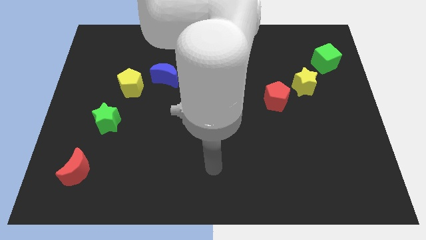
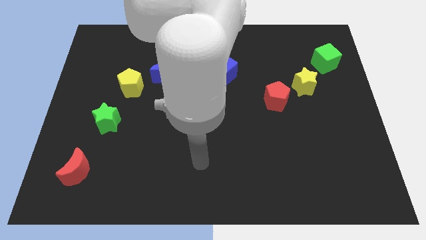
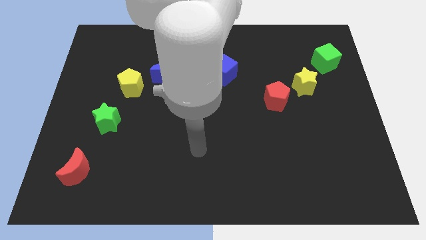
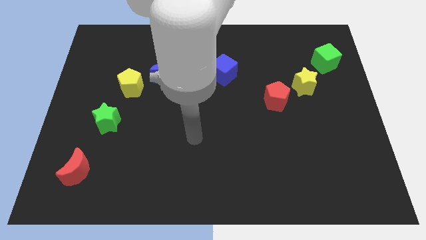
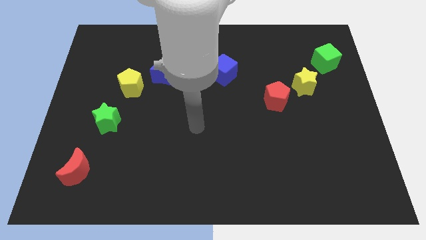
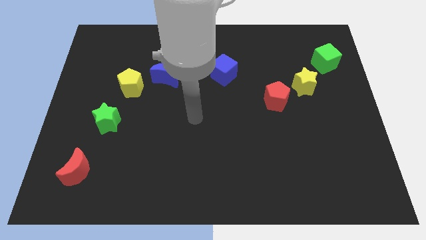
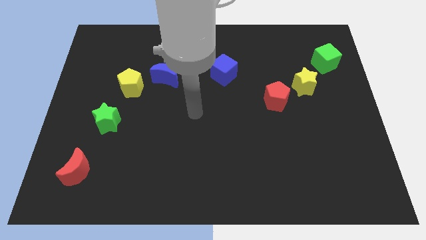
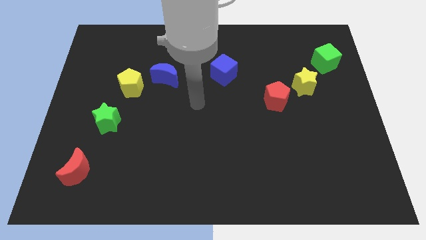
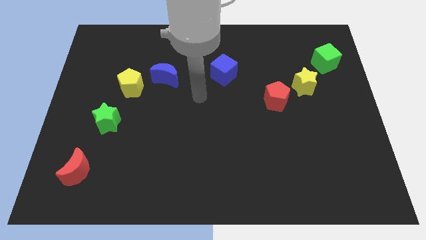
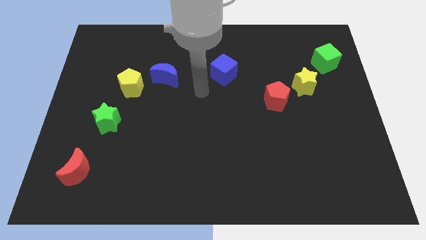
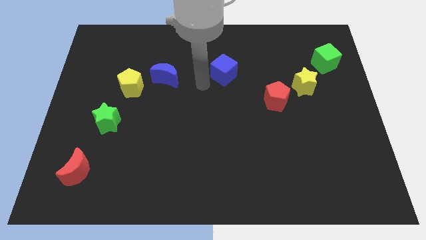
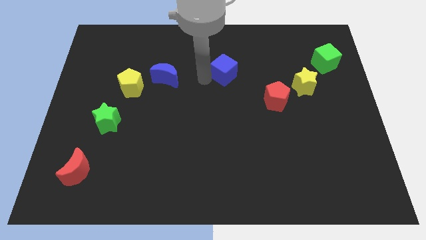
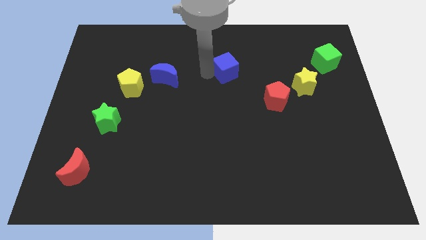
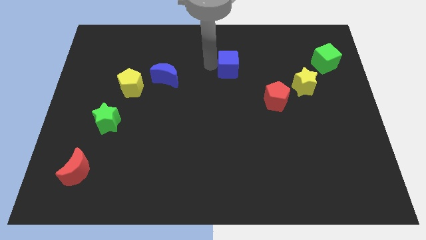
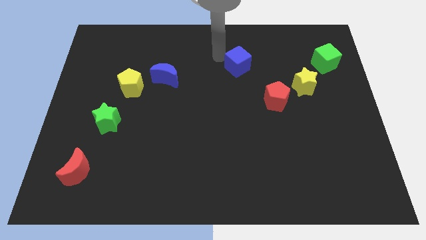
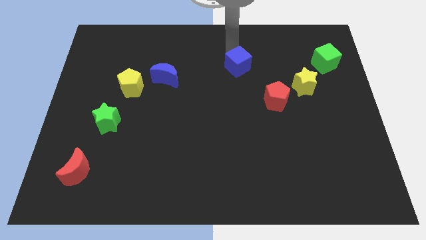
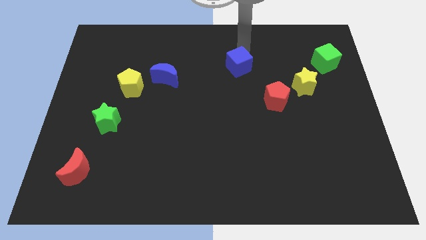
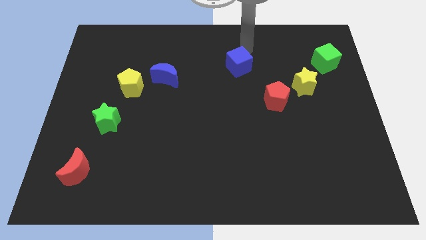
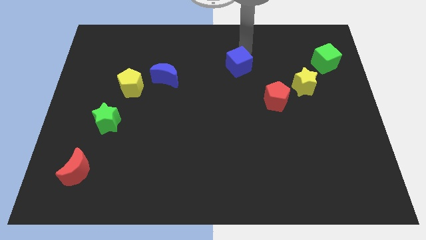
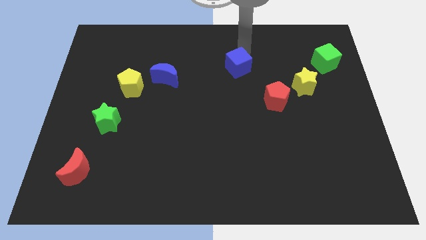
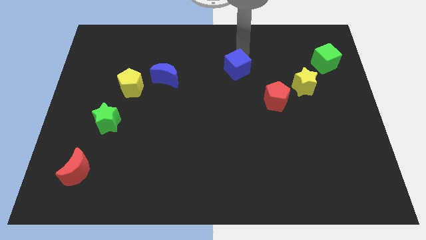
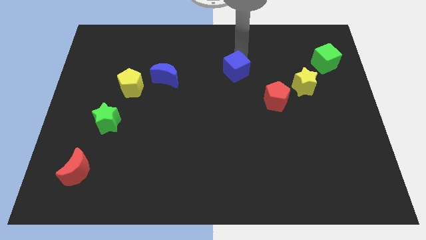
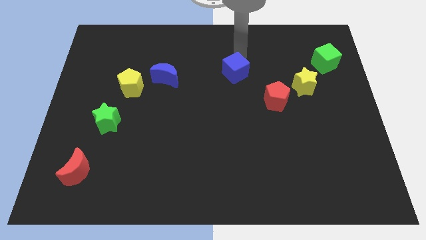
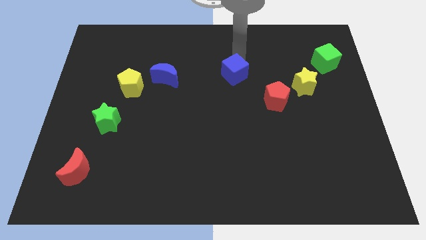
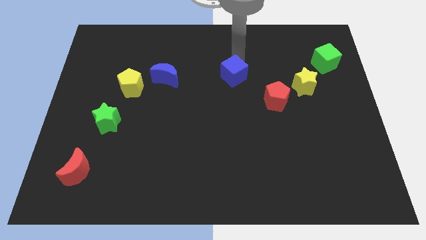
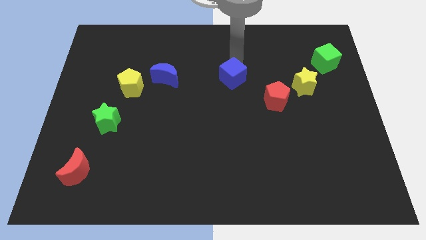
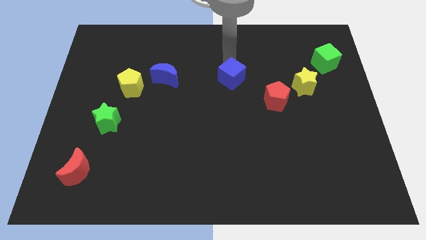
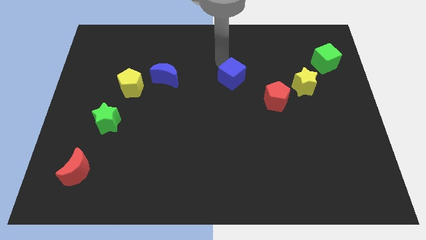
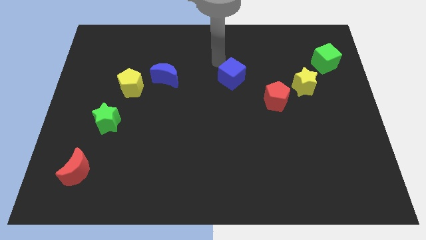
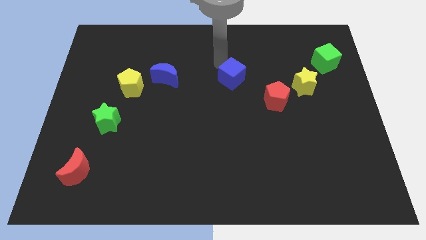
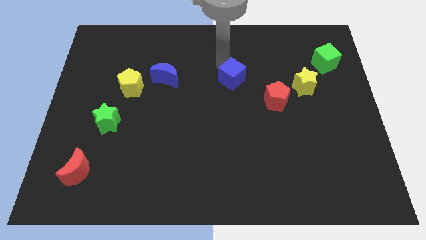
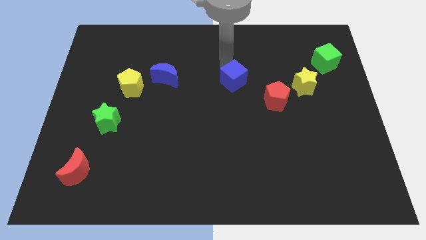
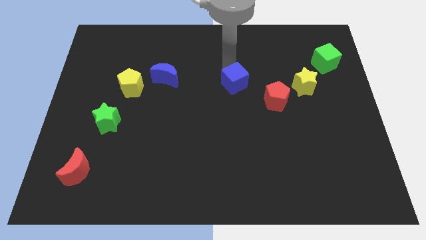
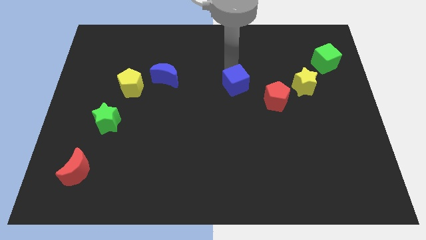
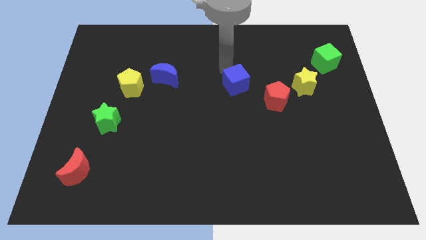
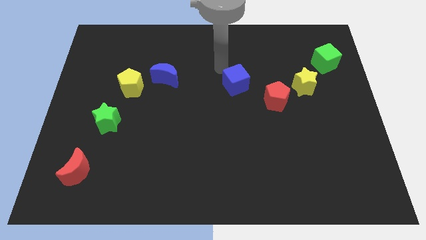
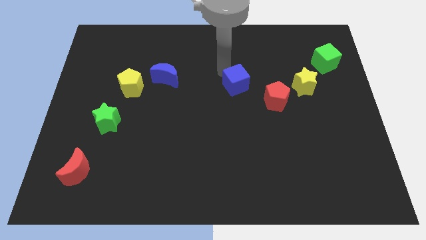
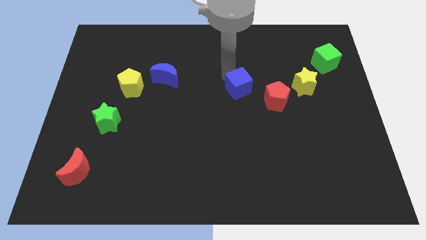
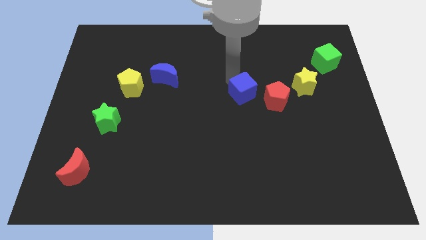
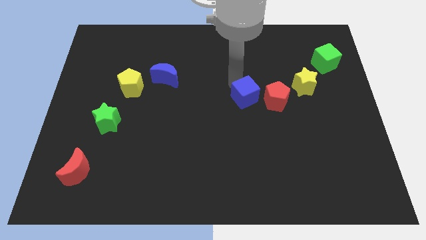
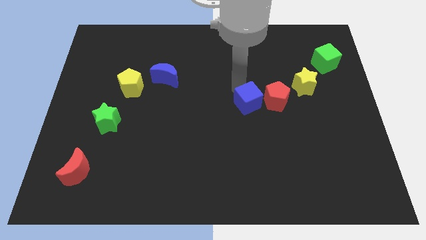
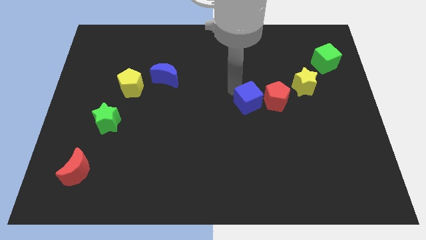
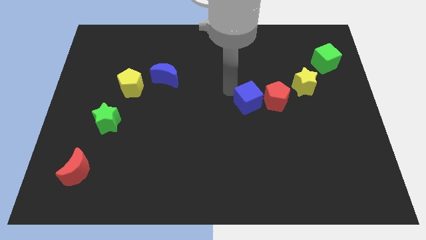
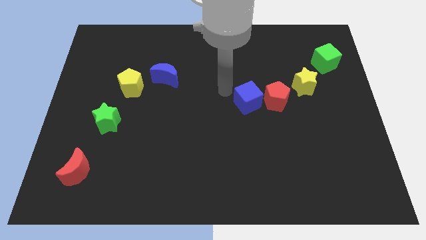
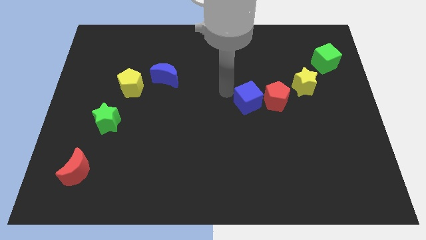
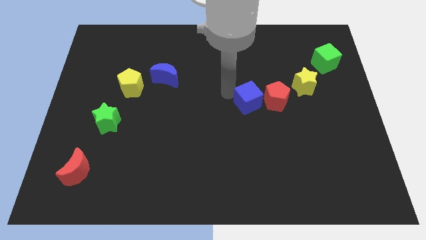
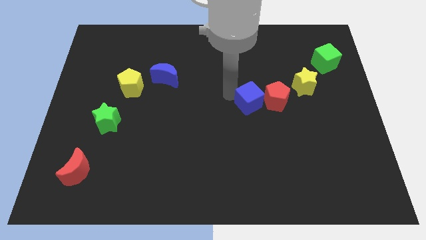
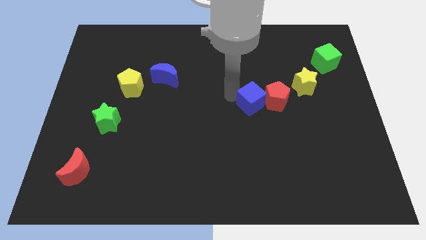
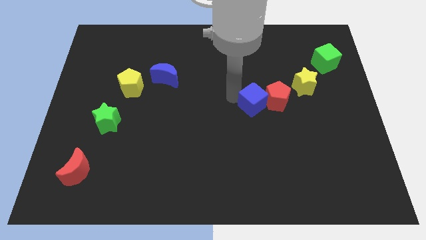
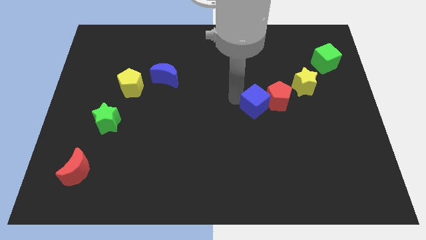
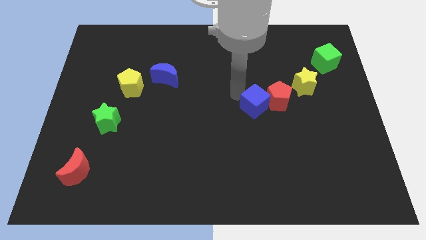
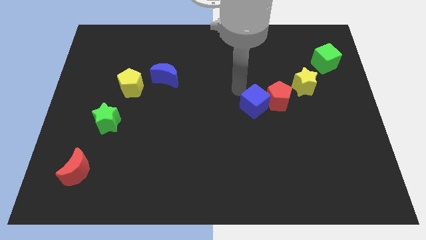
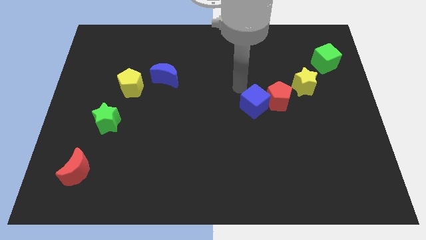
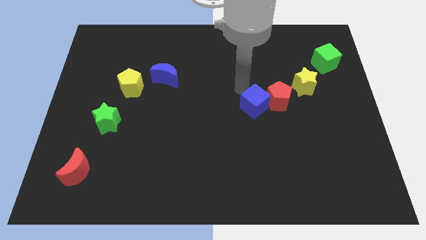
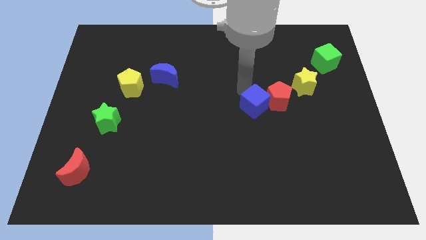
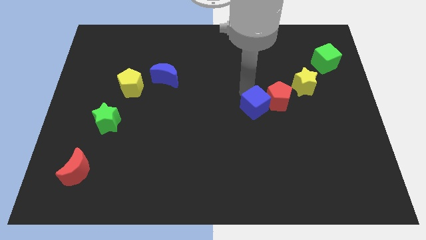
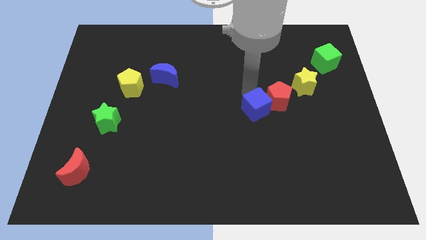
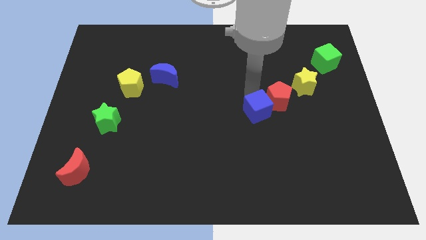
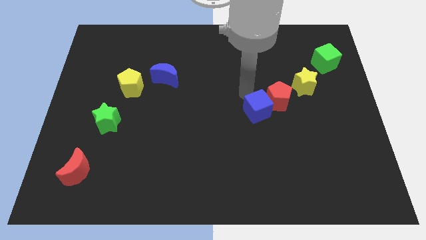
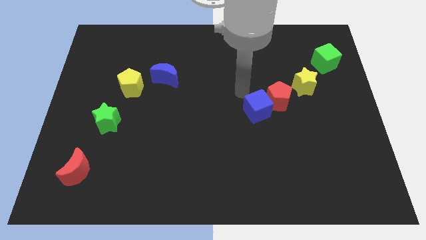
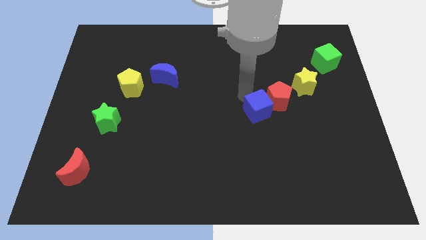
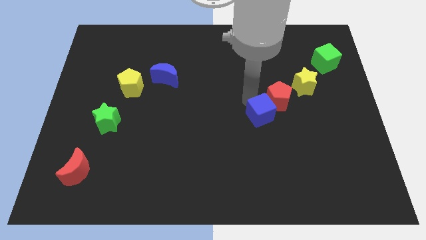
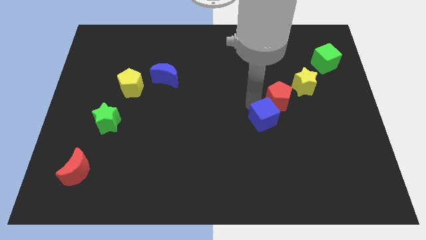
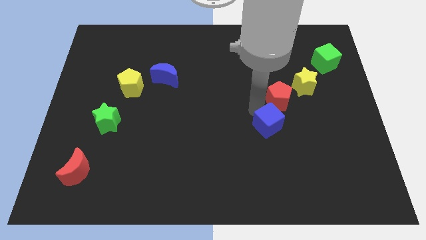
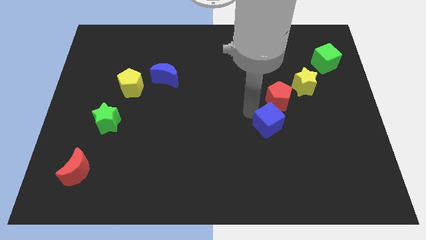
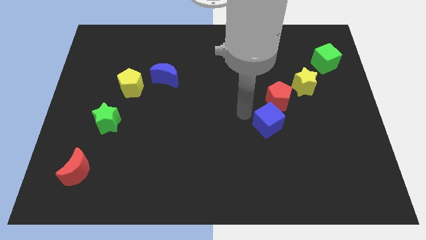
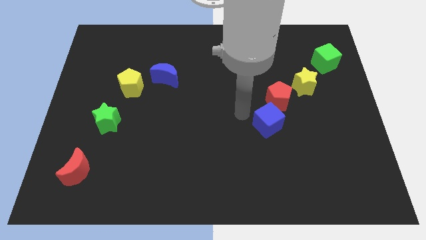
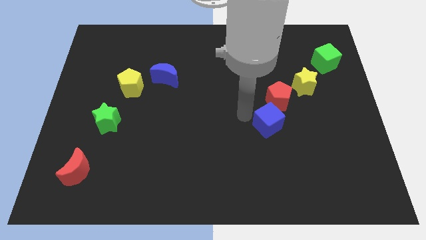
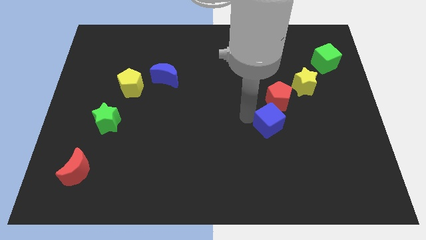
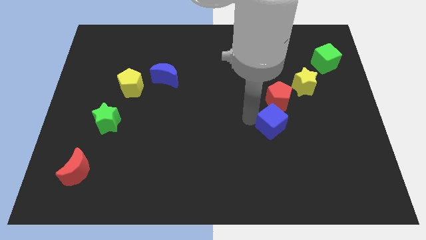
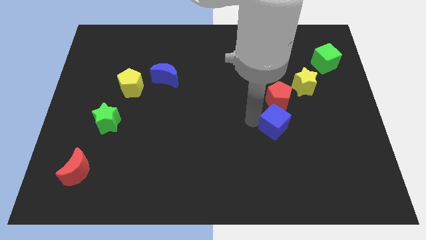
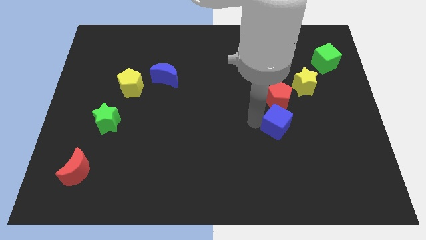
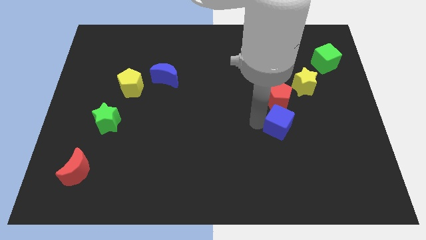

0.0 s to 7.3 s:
push the blue cube diagonally down and right
